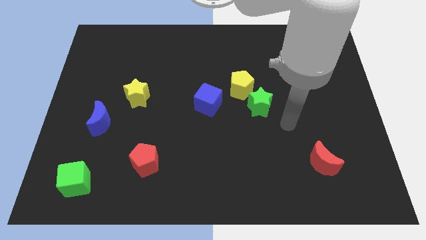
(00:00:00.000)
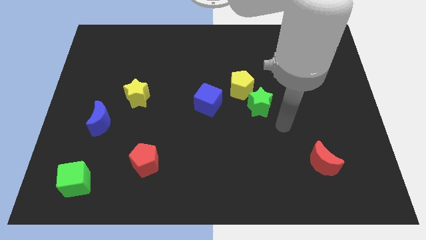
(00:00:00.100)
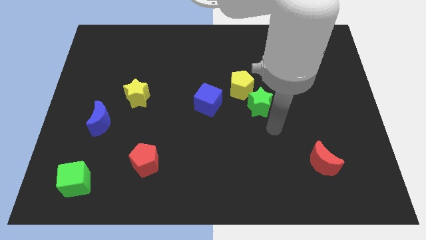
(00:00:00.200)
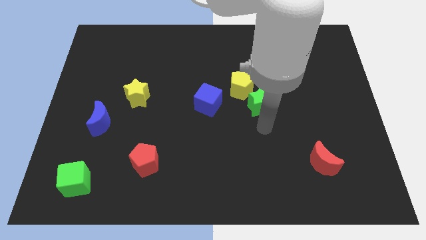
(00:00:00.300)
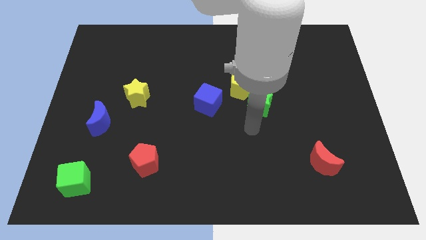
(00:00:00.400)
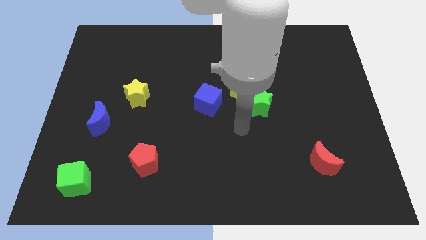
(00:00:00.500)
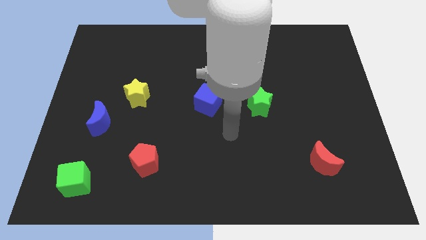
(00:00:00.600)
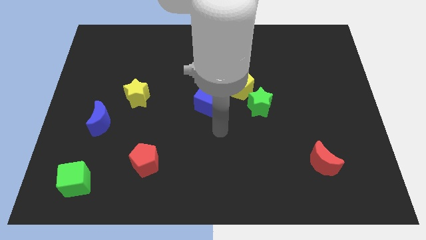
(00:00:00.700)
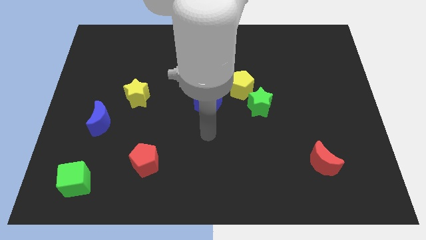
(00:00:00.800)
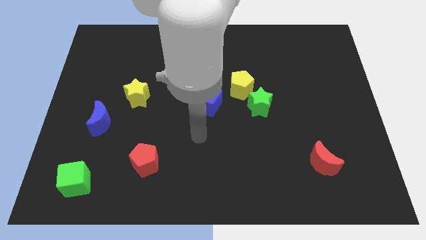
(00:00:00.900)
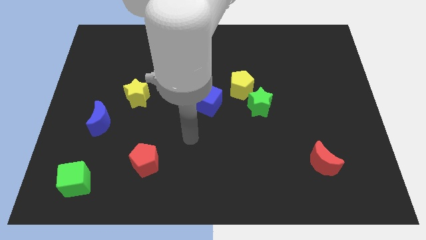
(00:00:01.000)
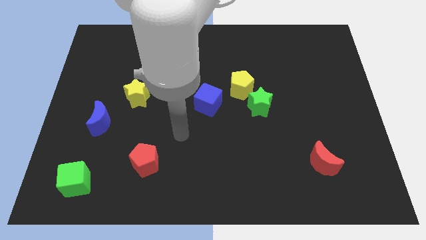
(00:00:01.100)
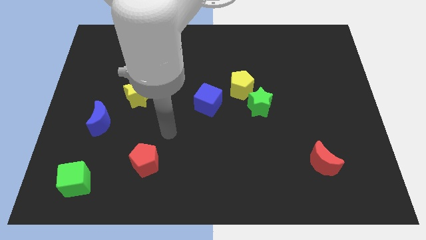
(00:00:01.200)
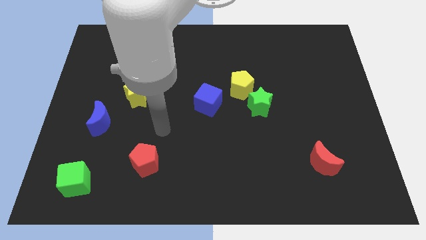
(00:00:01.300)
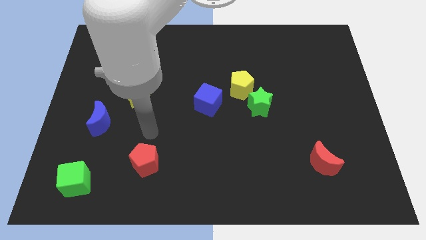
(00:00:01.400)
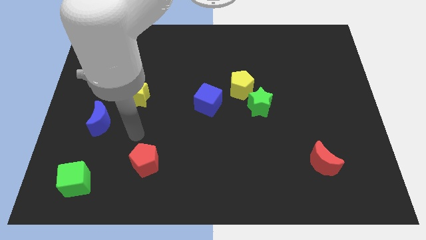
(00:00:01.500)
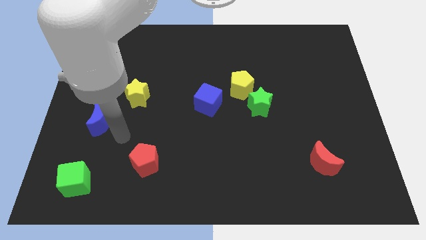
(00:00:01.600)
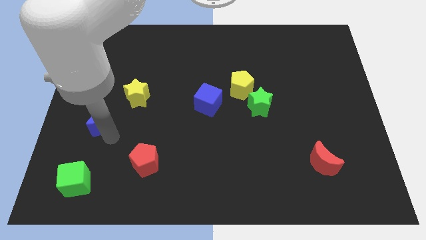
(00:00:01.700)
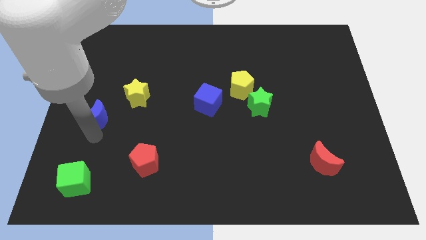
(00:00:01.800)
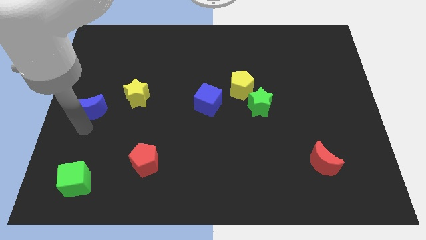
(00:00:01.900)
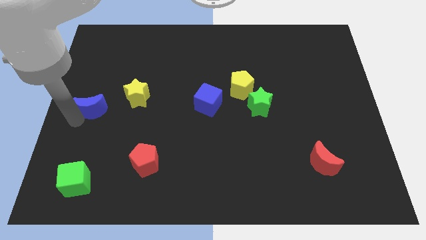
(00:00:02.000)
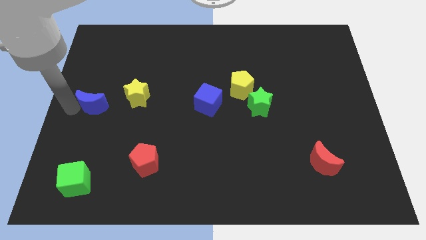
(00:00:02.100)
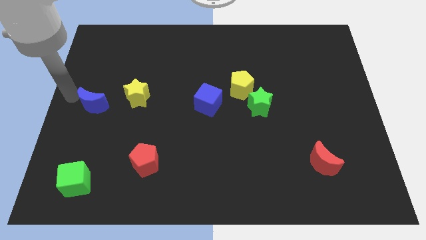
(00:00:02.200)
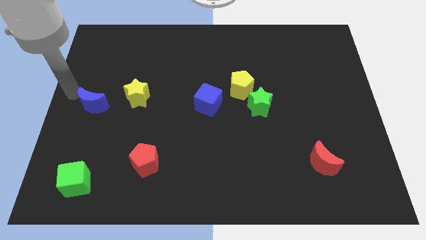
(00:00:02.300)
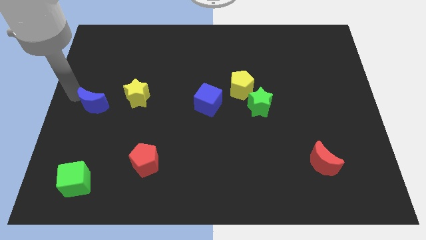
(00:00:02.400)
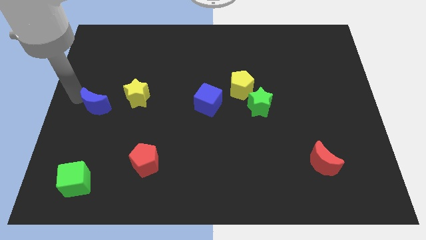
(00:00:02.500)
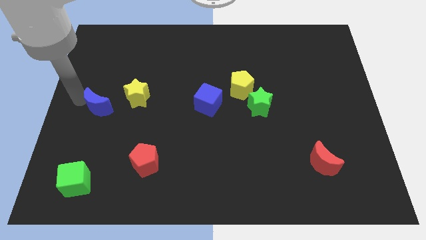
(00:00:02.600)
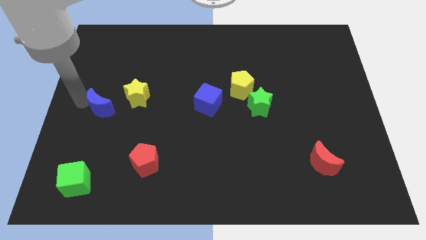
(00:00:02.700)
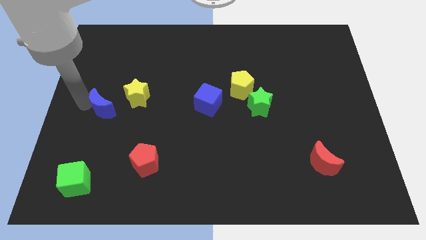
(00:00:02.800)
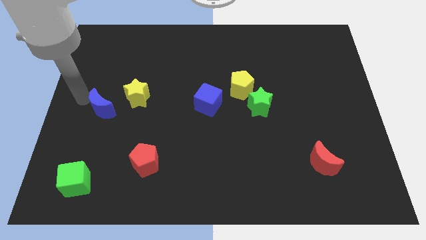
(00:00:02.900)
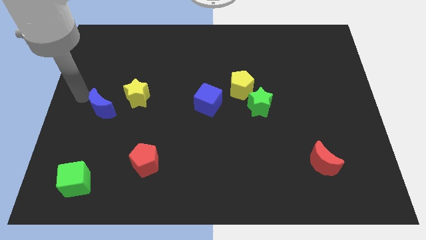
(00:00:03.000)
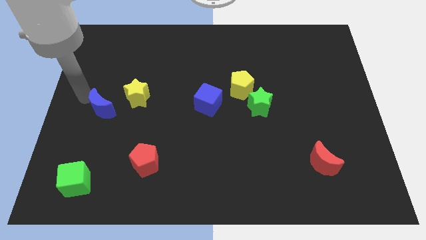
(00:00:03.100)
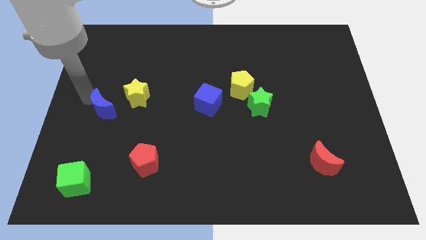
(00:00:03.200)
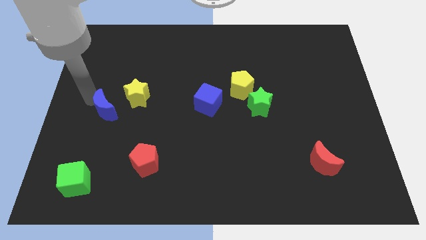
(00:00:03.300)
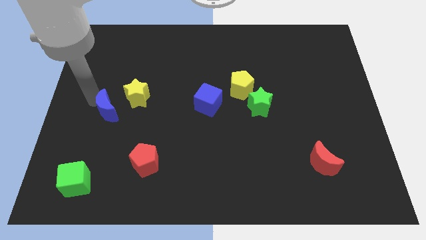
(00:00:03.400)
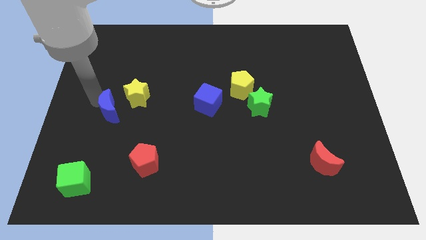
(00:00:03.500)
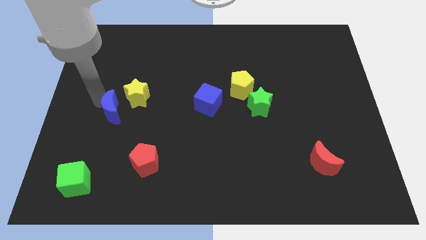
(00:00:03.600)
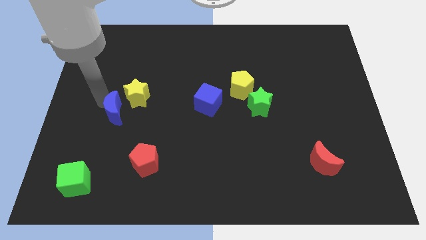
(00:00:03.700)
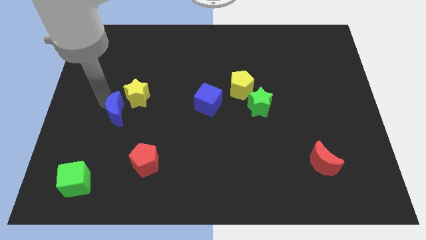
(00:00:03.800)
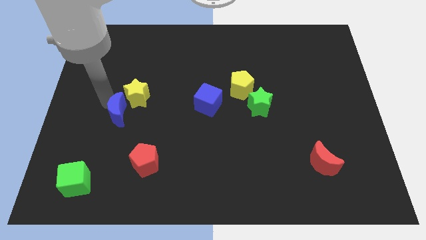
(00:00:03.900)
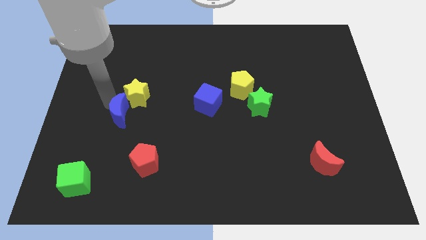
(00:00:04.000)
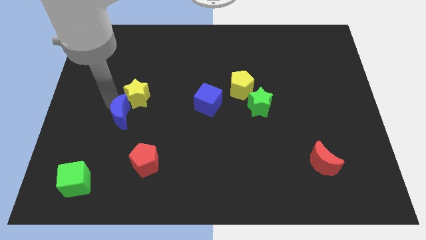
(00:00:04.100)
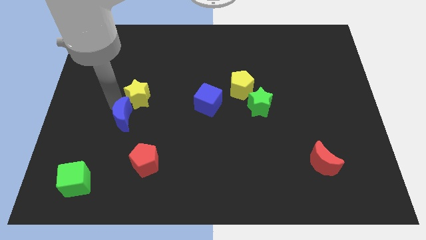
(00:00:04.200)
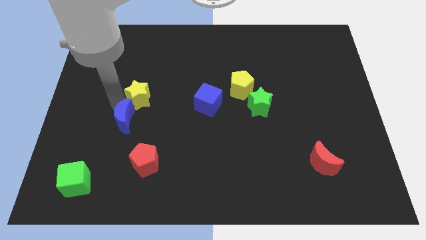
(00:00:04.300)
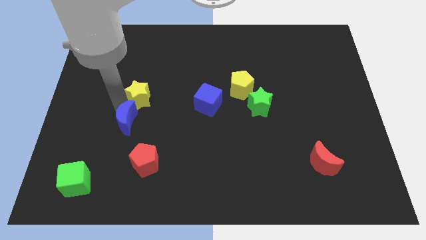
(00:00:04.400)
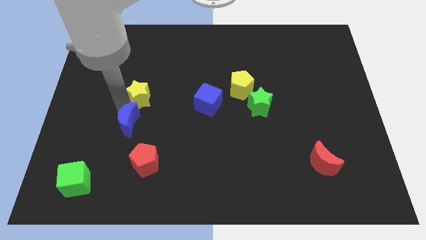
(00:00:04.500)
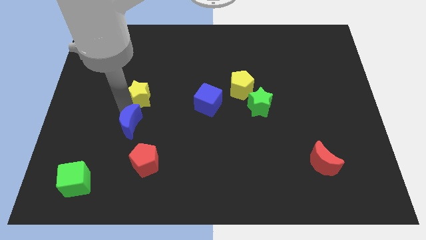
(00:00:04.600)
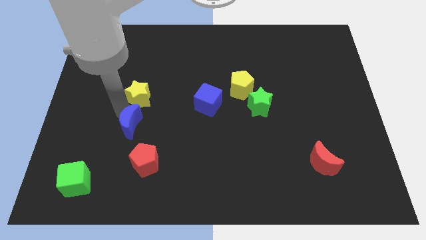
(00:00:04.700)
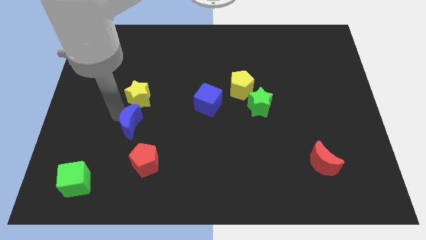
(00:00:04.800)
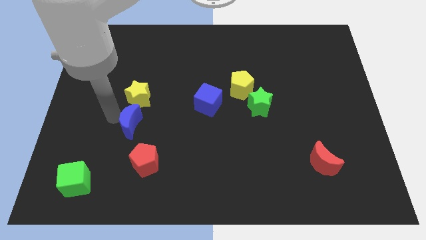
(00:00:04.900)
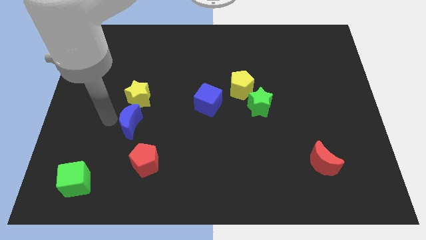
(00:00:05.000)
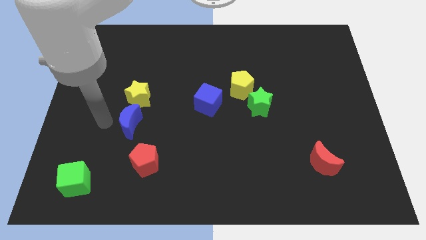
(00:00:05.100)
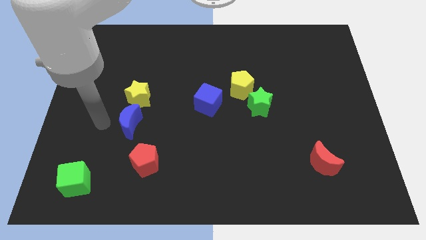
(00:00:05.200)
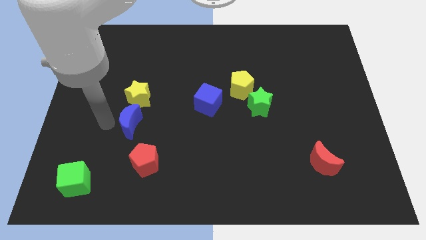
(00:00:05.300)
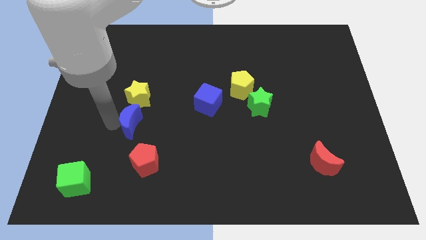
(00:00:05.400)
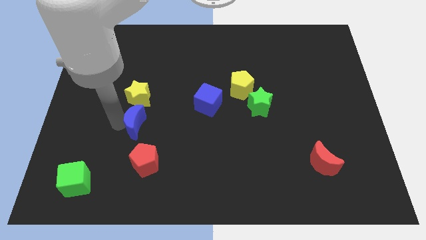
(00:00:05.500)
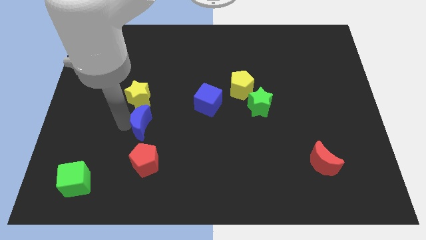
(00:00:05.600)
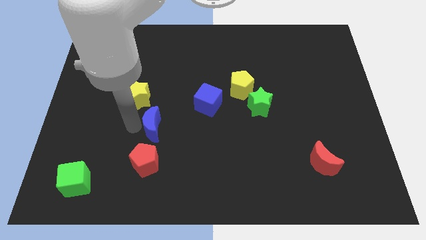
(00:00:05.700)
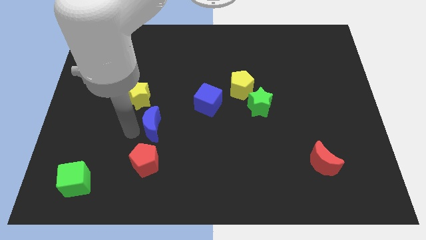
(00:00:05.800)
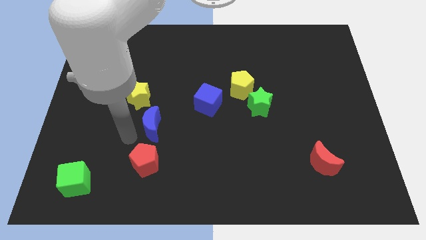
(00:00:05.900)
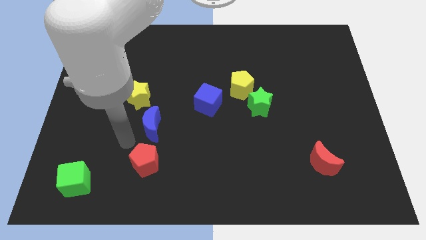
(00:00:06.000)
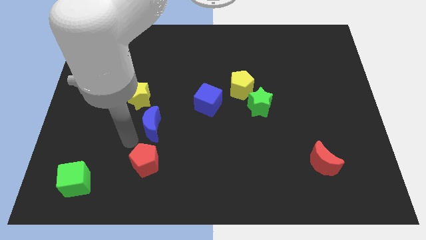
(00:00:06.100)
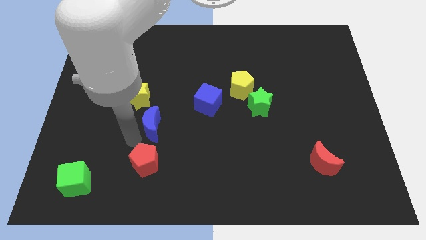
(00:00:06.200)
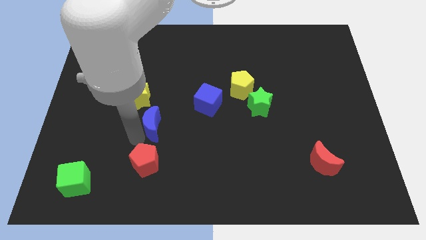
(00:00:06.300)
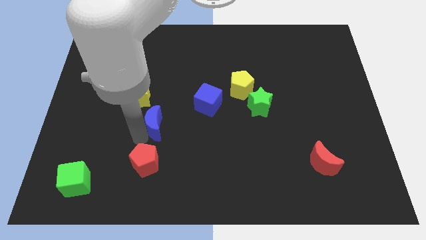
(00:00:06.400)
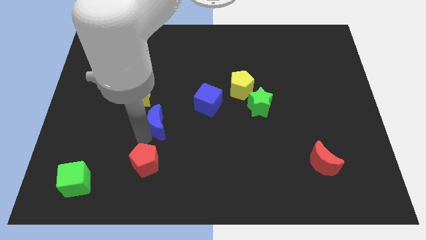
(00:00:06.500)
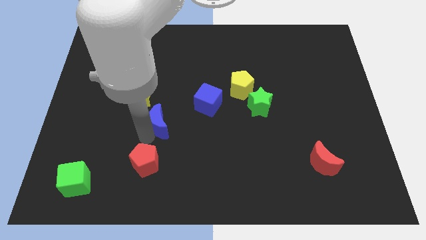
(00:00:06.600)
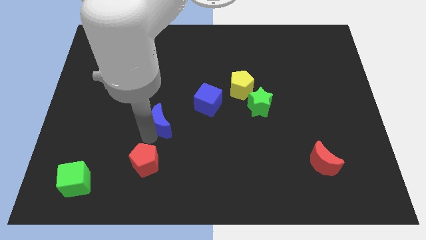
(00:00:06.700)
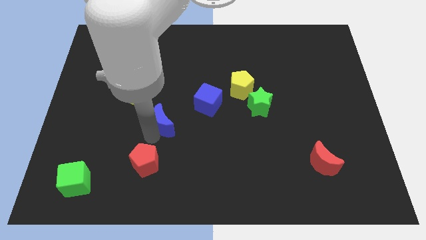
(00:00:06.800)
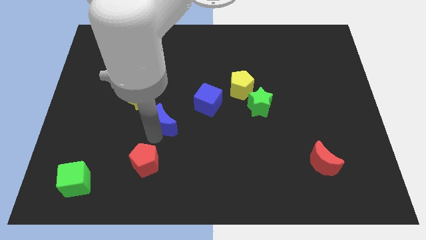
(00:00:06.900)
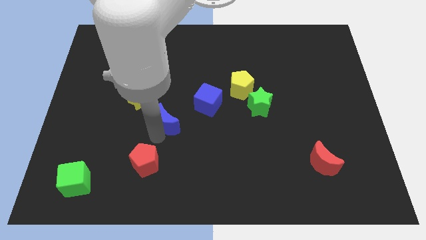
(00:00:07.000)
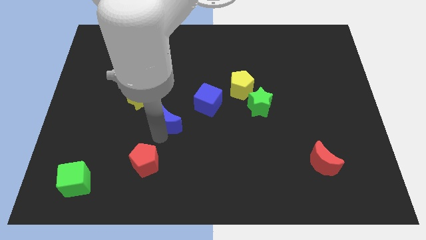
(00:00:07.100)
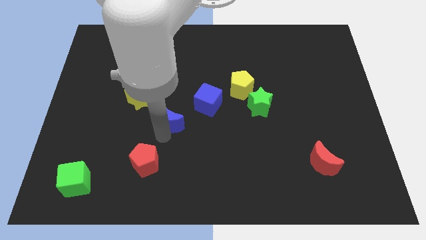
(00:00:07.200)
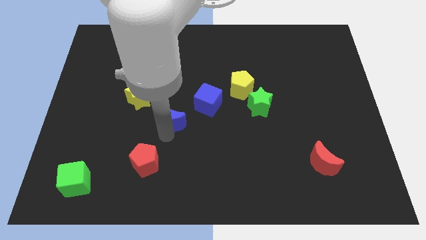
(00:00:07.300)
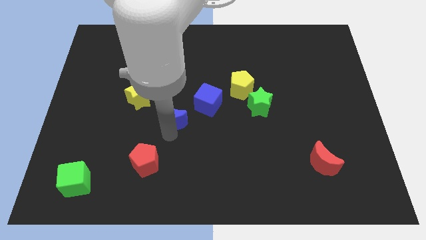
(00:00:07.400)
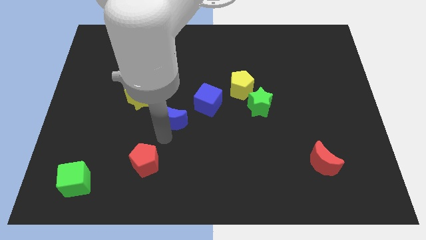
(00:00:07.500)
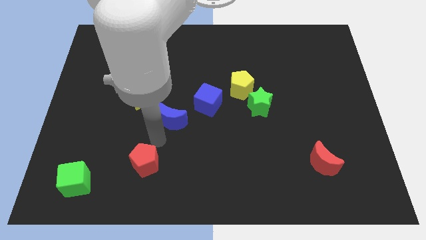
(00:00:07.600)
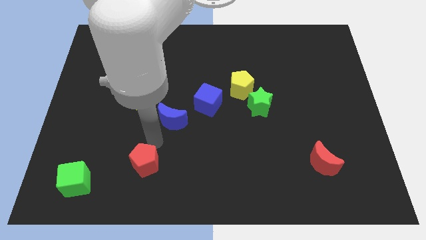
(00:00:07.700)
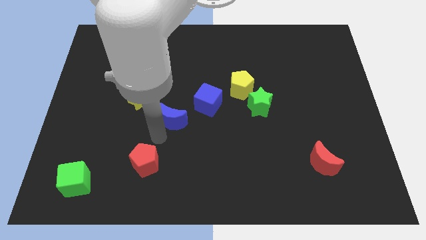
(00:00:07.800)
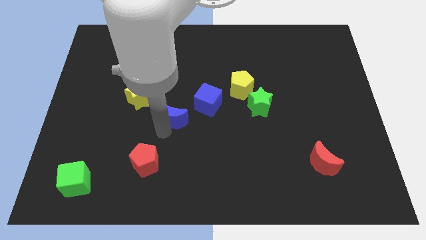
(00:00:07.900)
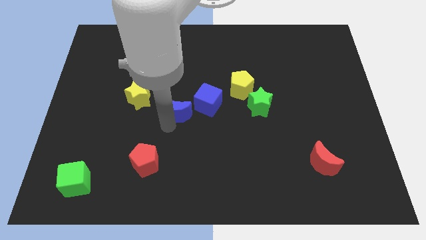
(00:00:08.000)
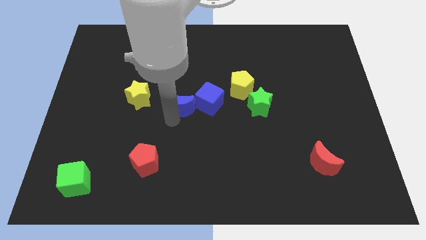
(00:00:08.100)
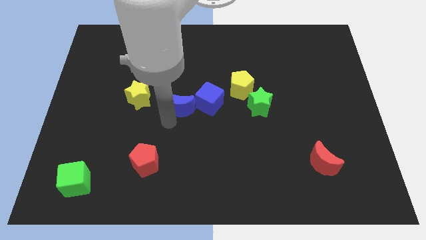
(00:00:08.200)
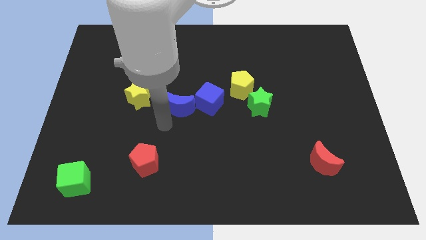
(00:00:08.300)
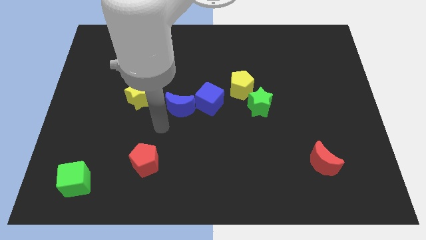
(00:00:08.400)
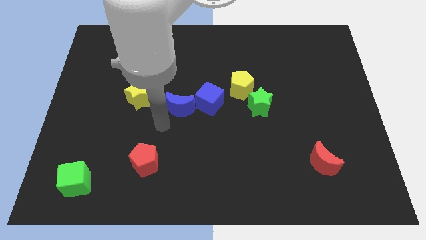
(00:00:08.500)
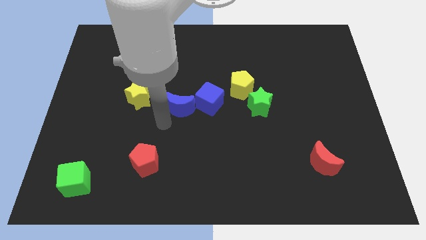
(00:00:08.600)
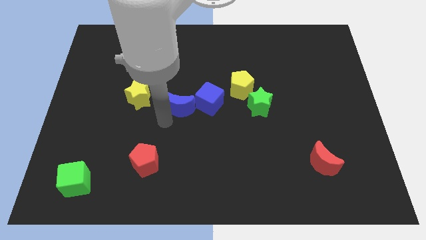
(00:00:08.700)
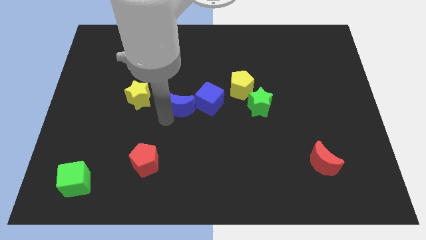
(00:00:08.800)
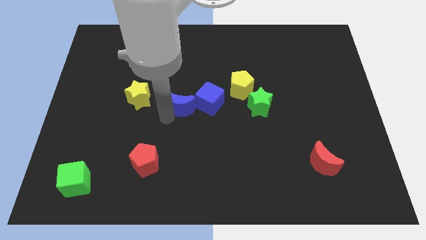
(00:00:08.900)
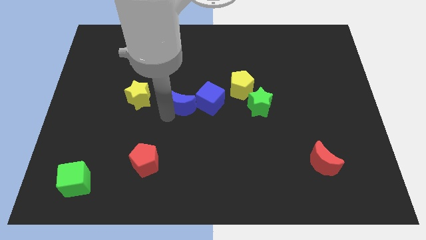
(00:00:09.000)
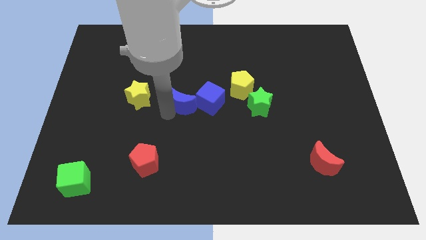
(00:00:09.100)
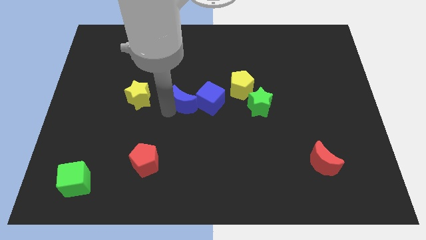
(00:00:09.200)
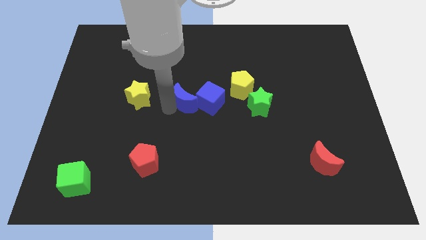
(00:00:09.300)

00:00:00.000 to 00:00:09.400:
put the blue moon left of the yellow pentagon

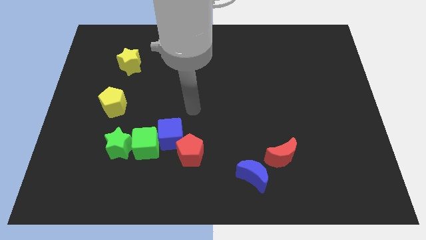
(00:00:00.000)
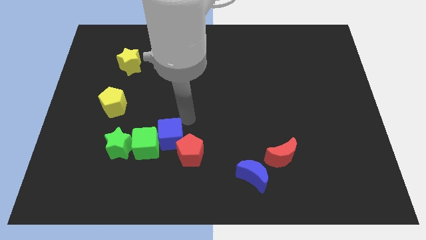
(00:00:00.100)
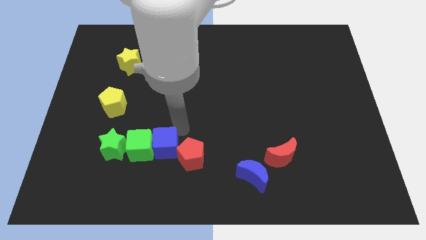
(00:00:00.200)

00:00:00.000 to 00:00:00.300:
slide the red pentagon to the left of the blue moon
